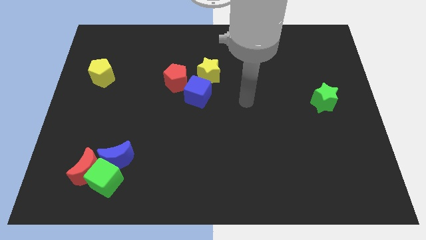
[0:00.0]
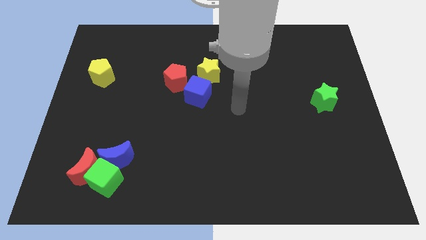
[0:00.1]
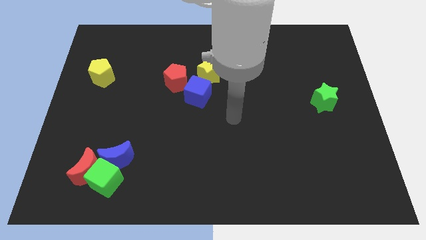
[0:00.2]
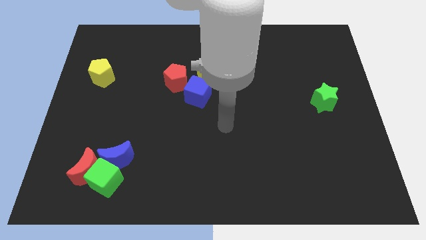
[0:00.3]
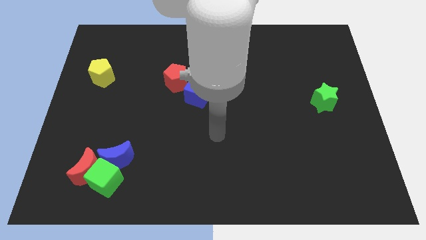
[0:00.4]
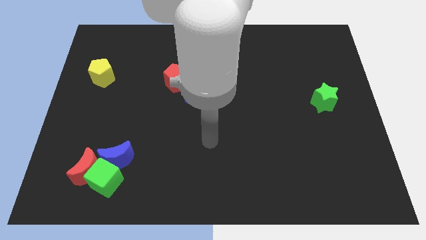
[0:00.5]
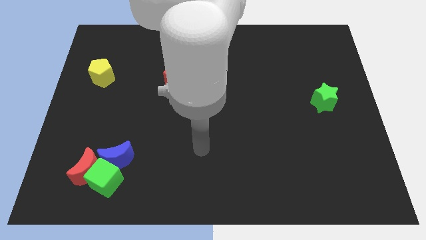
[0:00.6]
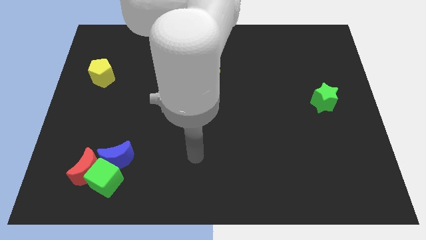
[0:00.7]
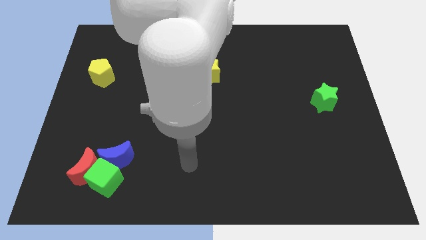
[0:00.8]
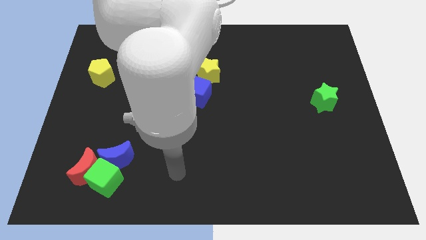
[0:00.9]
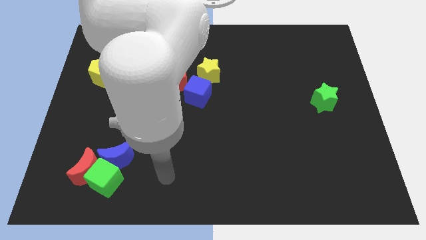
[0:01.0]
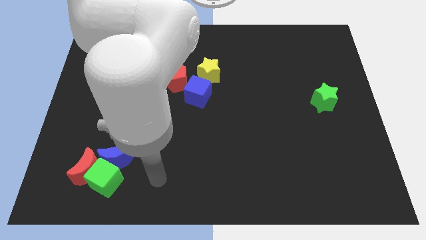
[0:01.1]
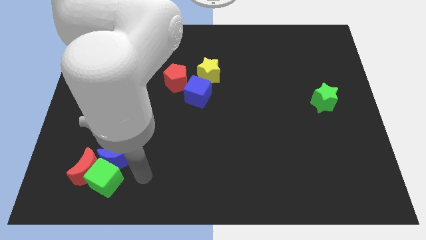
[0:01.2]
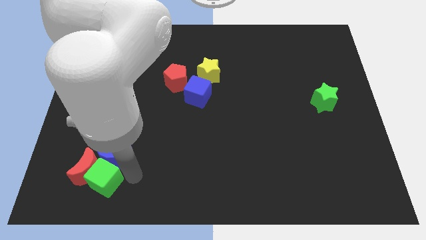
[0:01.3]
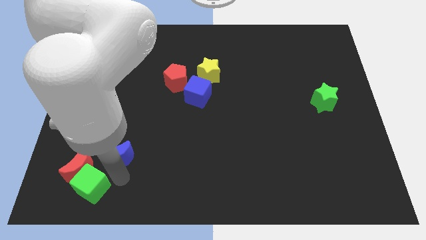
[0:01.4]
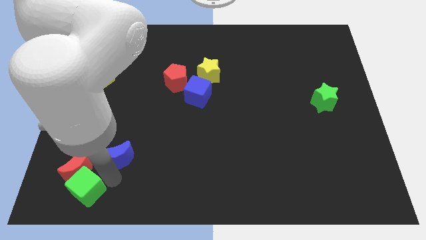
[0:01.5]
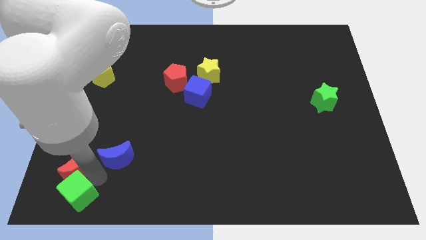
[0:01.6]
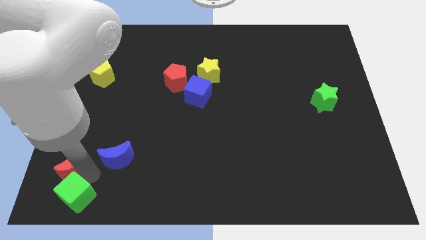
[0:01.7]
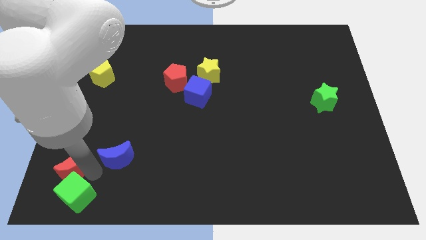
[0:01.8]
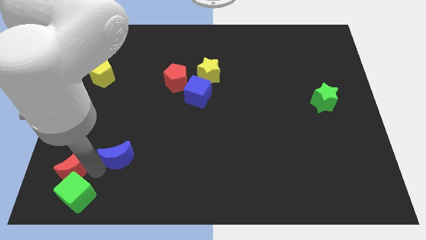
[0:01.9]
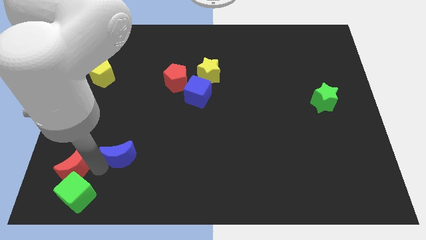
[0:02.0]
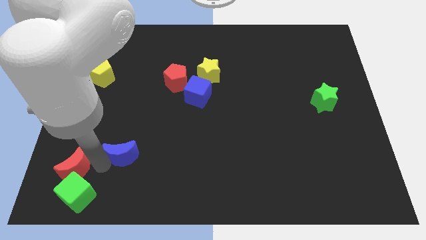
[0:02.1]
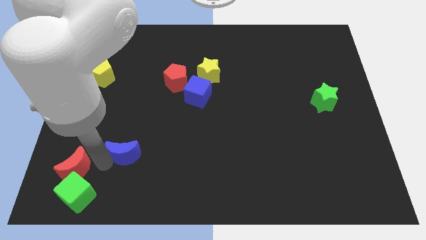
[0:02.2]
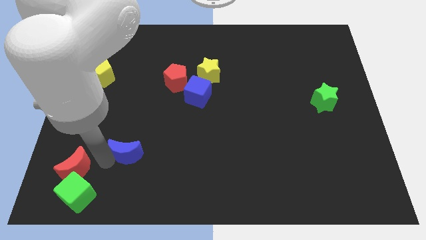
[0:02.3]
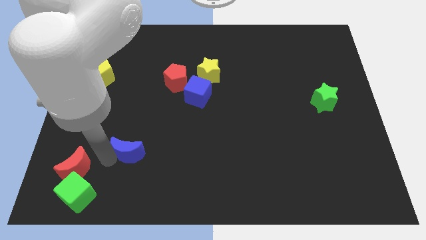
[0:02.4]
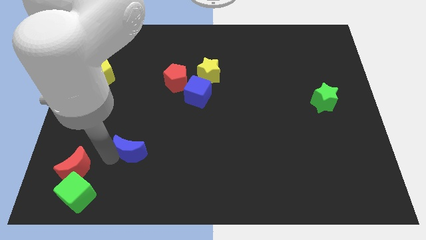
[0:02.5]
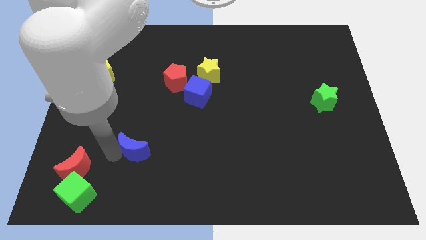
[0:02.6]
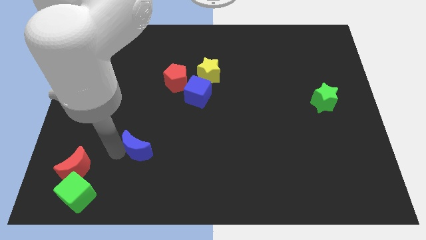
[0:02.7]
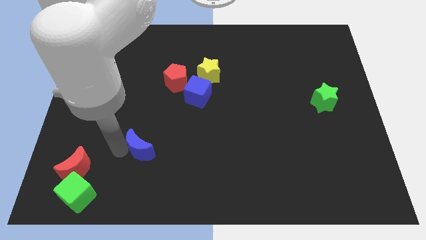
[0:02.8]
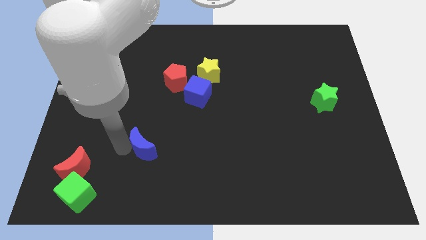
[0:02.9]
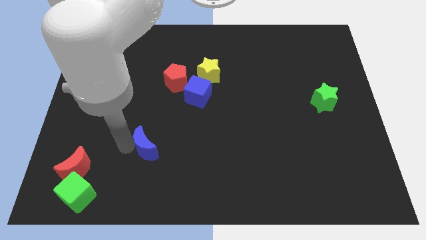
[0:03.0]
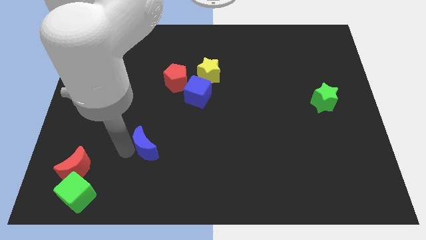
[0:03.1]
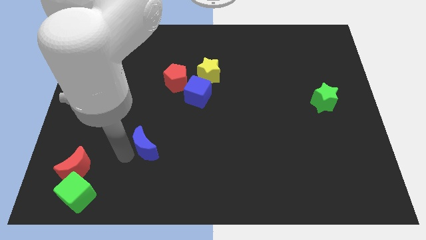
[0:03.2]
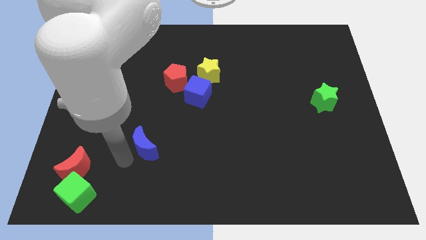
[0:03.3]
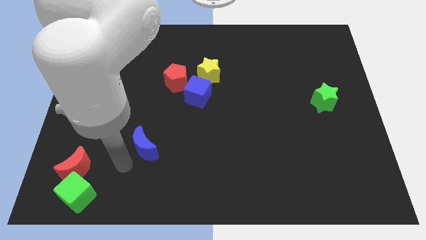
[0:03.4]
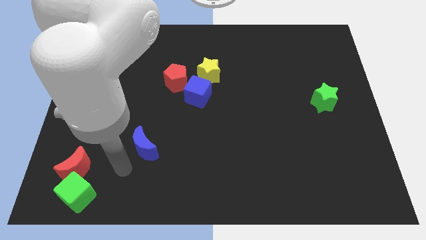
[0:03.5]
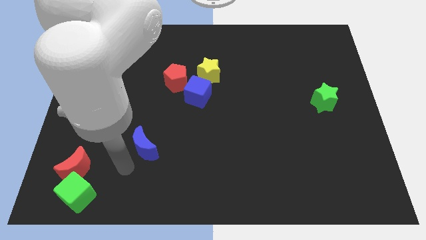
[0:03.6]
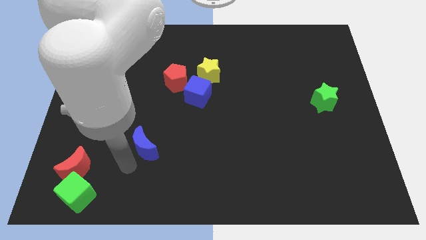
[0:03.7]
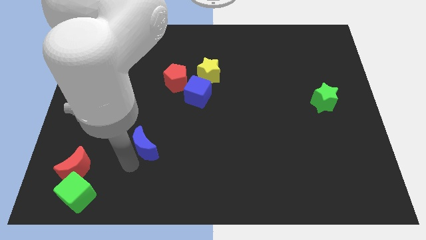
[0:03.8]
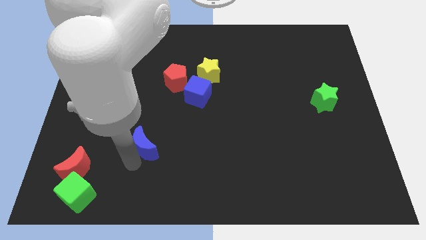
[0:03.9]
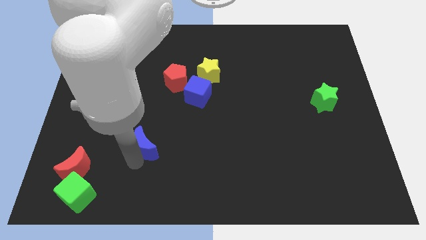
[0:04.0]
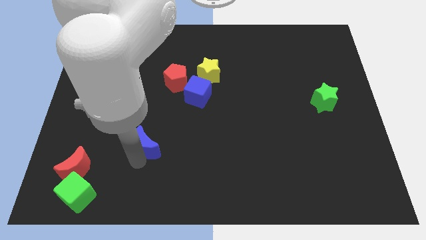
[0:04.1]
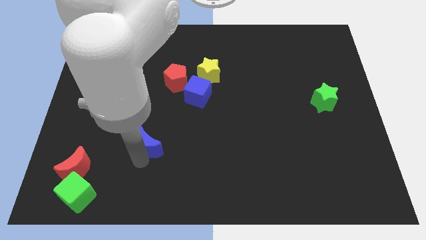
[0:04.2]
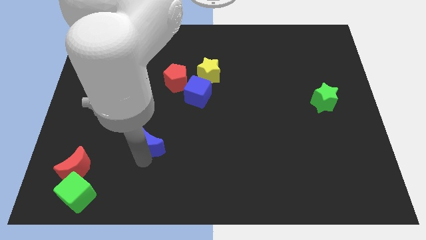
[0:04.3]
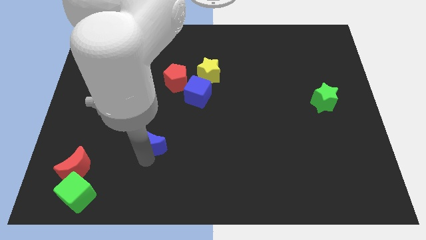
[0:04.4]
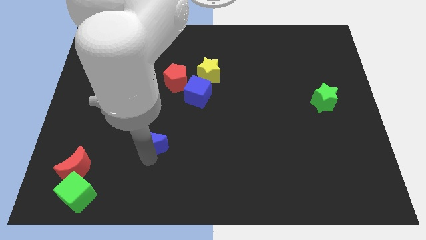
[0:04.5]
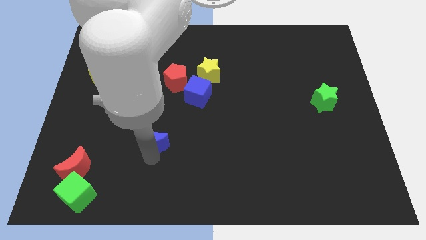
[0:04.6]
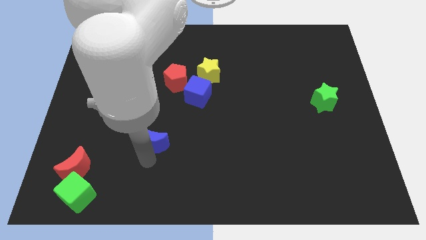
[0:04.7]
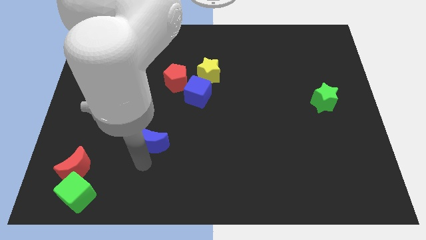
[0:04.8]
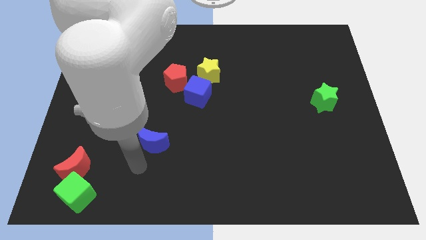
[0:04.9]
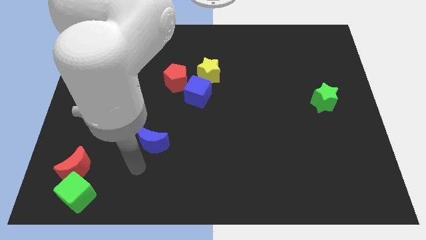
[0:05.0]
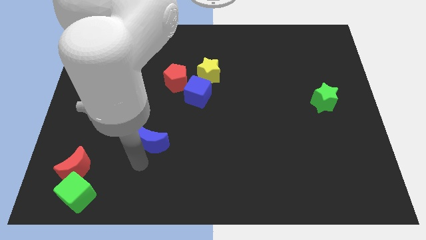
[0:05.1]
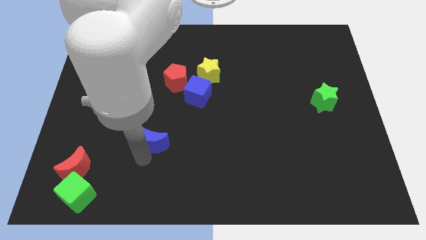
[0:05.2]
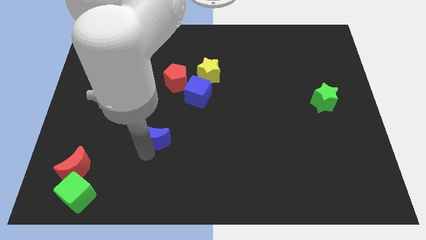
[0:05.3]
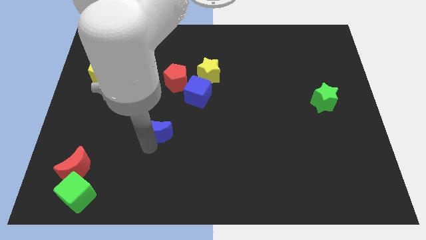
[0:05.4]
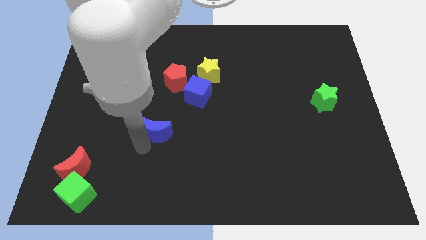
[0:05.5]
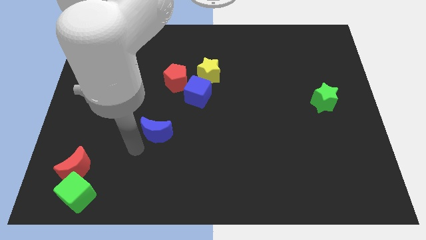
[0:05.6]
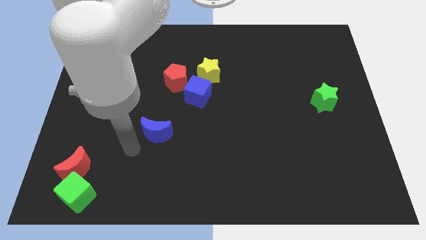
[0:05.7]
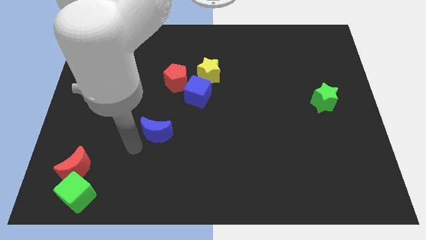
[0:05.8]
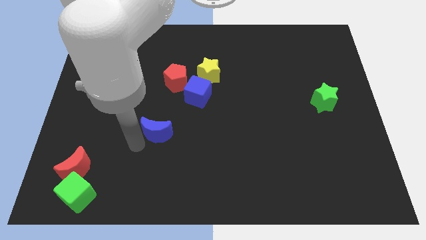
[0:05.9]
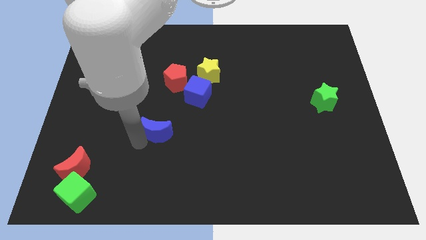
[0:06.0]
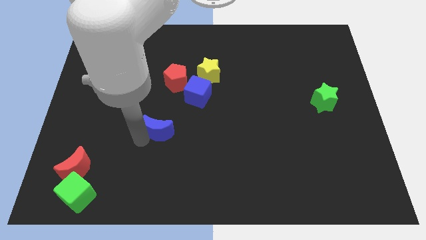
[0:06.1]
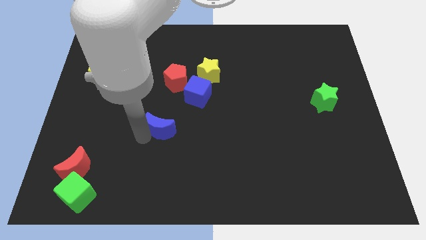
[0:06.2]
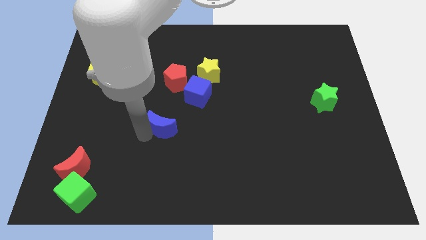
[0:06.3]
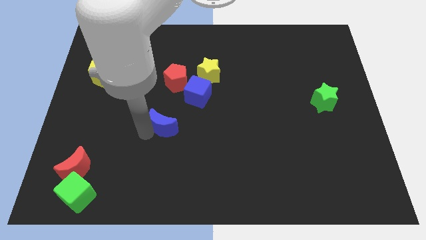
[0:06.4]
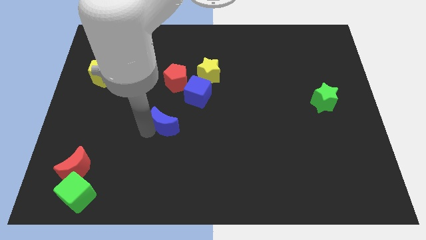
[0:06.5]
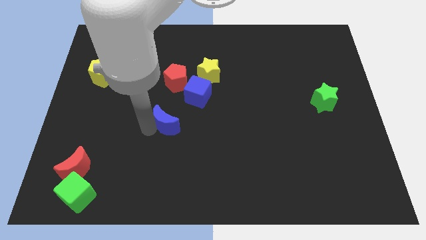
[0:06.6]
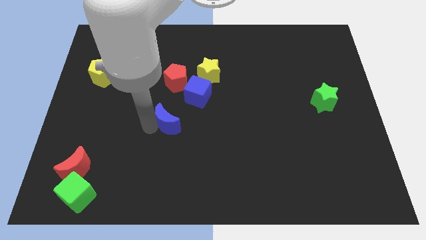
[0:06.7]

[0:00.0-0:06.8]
slide the blue moon to the center
